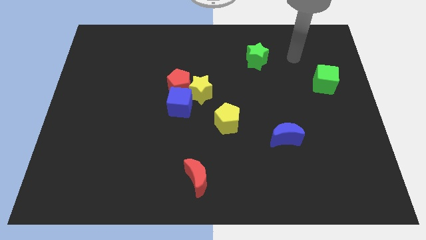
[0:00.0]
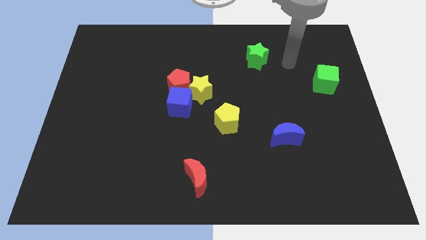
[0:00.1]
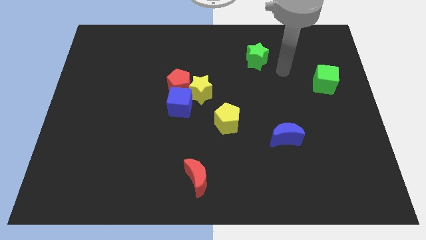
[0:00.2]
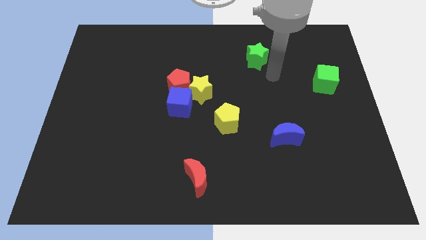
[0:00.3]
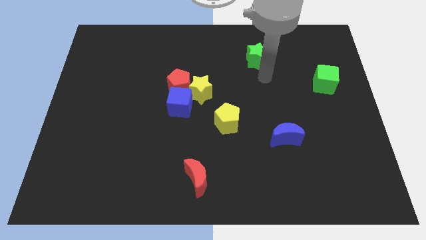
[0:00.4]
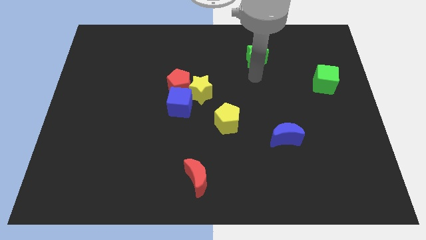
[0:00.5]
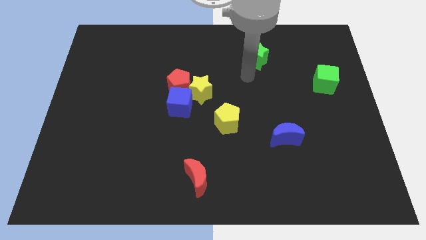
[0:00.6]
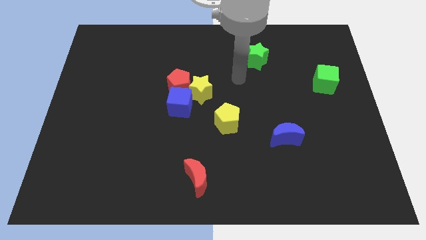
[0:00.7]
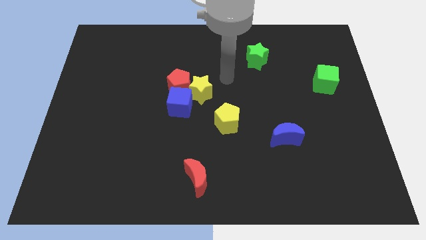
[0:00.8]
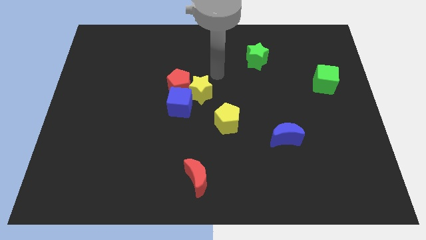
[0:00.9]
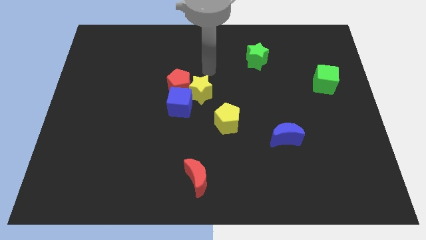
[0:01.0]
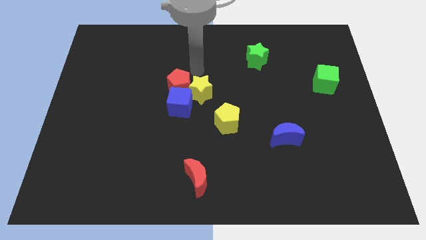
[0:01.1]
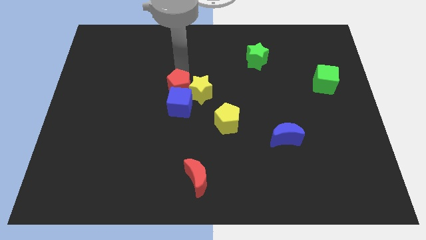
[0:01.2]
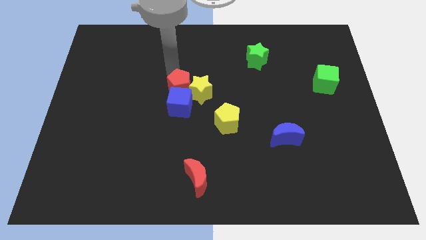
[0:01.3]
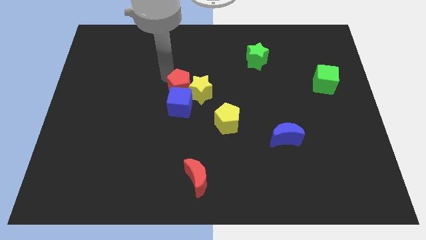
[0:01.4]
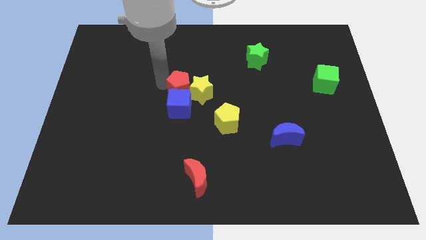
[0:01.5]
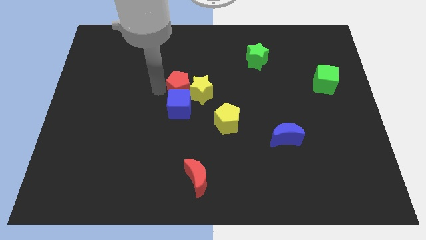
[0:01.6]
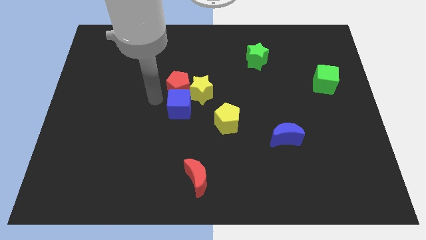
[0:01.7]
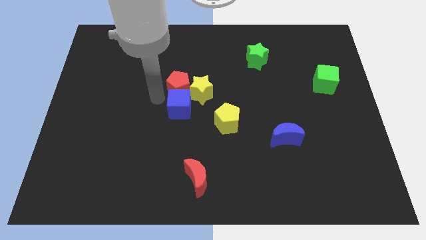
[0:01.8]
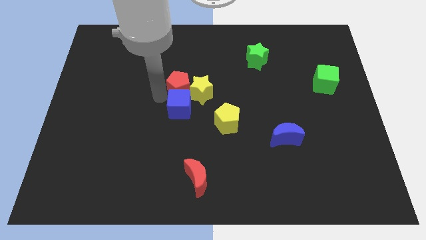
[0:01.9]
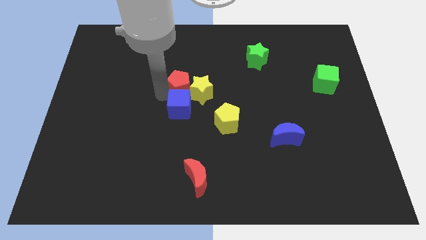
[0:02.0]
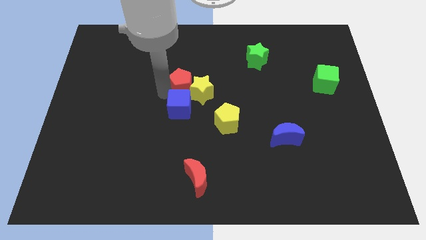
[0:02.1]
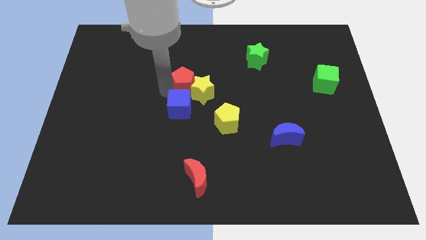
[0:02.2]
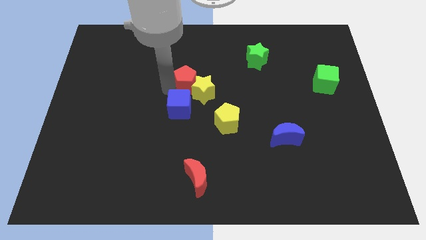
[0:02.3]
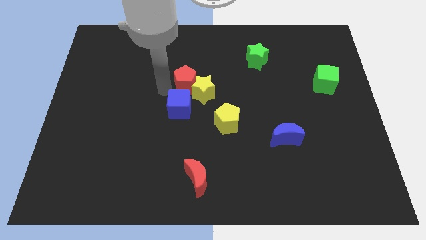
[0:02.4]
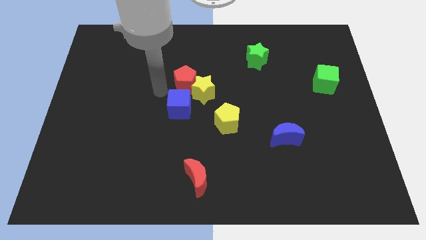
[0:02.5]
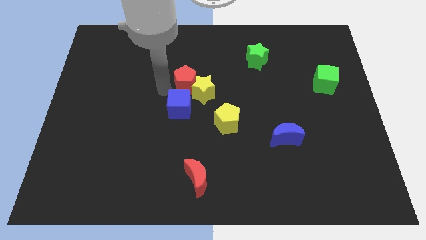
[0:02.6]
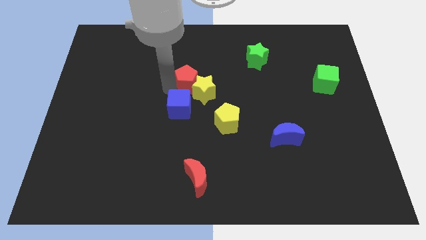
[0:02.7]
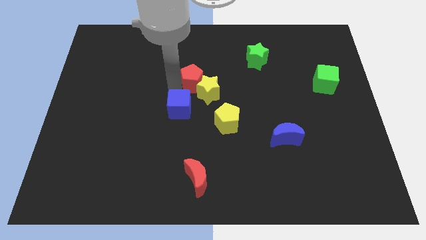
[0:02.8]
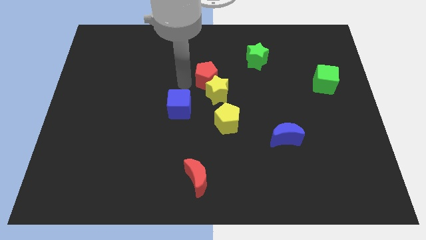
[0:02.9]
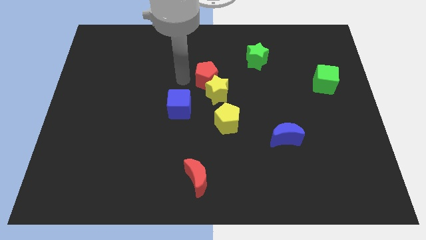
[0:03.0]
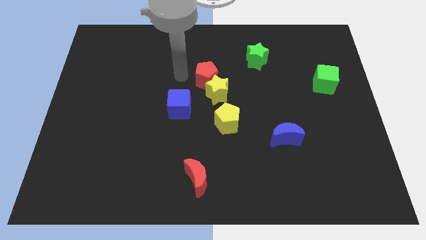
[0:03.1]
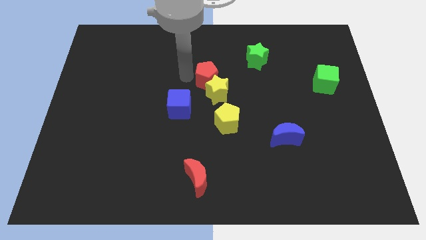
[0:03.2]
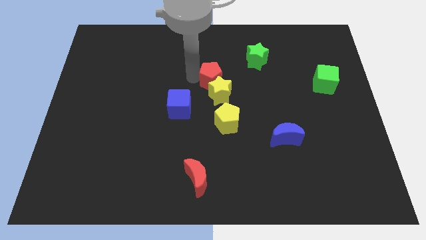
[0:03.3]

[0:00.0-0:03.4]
slide the red pentagon right a little bit

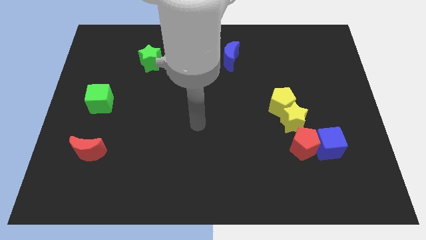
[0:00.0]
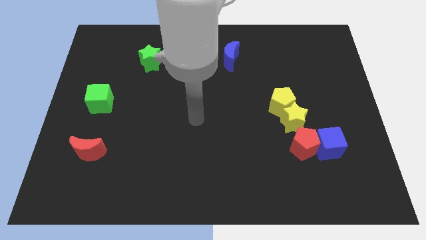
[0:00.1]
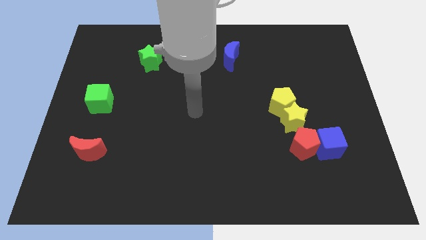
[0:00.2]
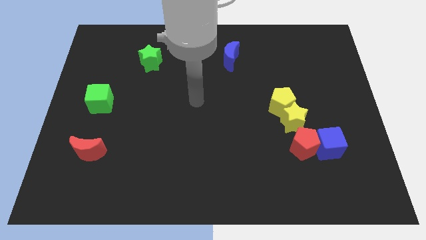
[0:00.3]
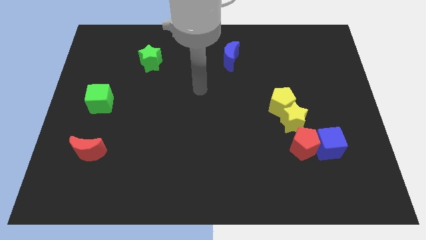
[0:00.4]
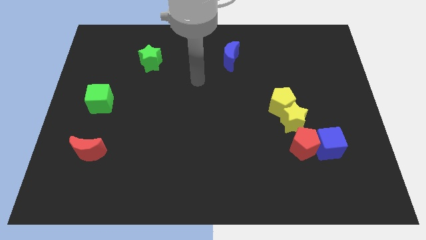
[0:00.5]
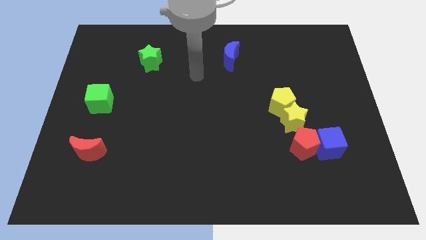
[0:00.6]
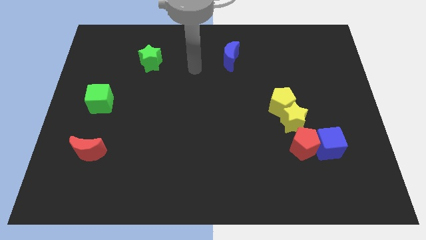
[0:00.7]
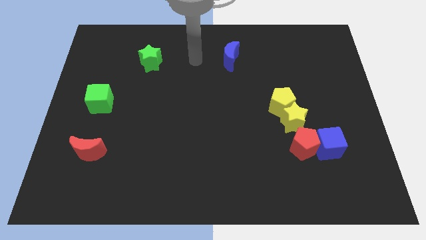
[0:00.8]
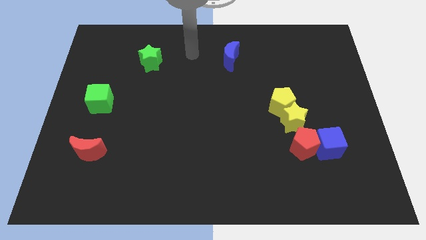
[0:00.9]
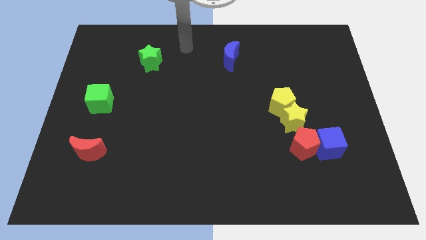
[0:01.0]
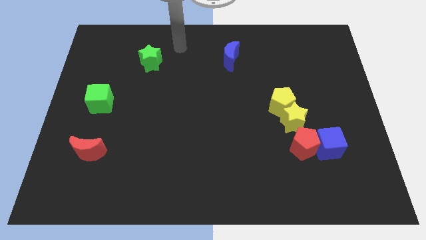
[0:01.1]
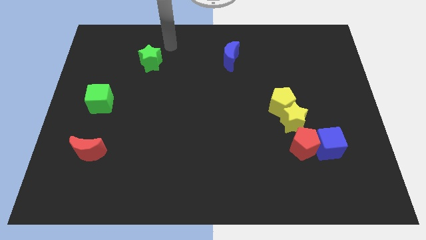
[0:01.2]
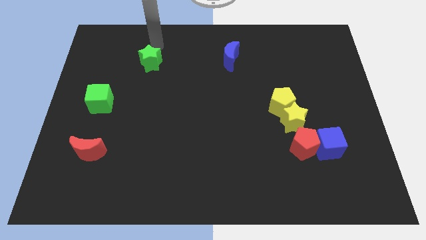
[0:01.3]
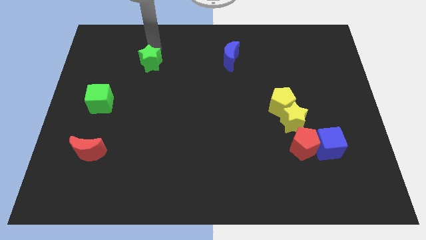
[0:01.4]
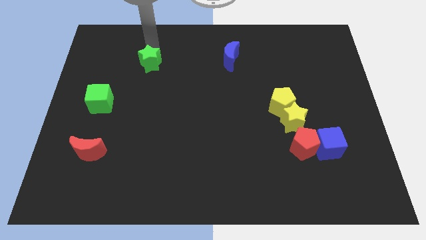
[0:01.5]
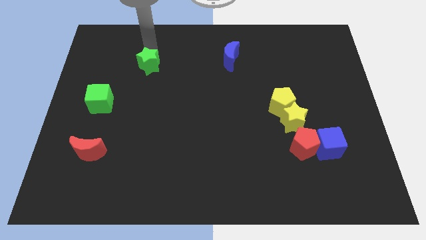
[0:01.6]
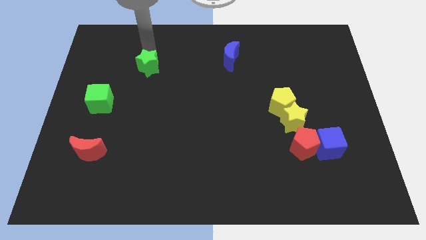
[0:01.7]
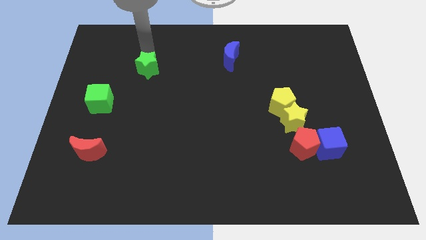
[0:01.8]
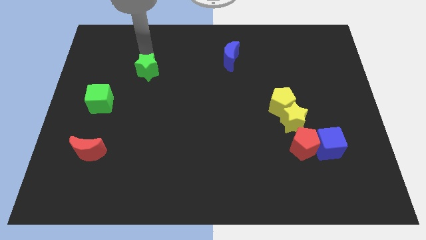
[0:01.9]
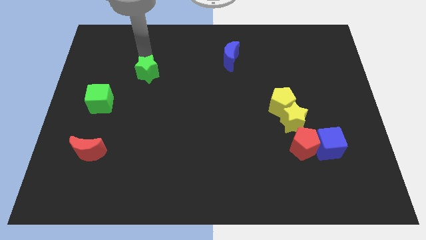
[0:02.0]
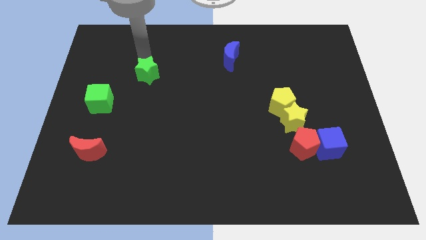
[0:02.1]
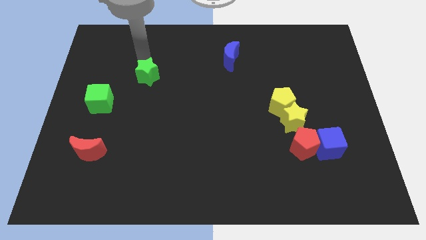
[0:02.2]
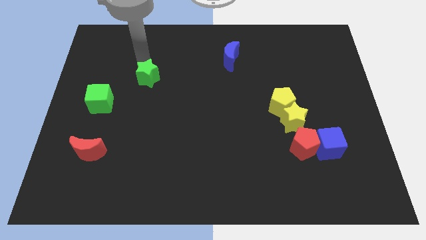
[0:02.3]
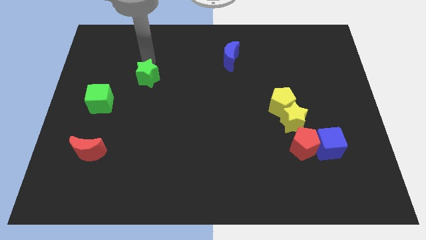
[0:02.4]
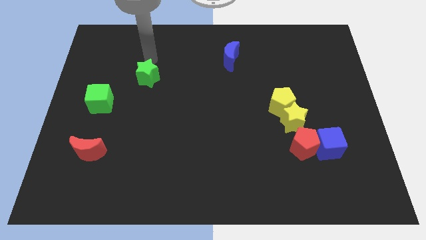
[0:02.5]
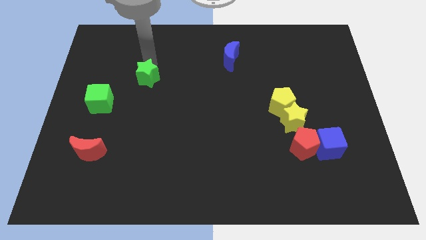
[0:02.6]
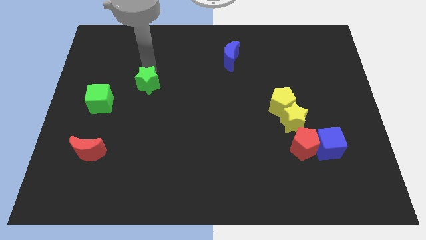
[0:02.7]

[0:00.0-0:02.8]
push the green star downwards somewhat

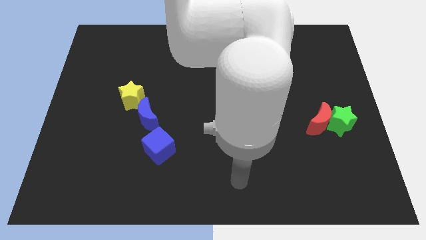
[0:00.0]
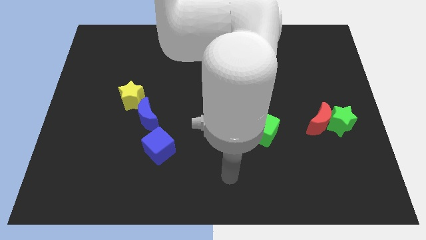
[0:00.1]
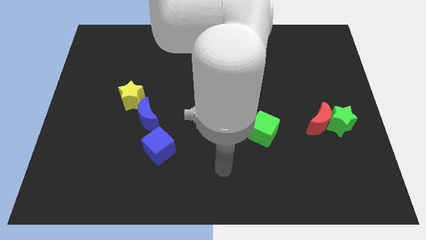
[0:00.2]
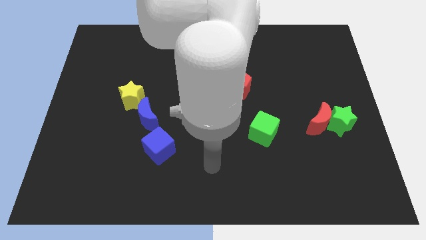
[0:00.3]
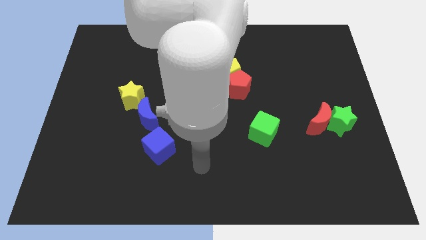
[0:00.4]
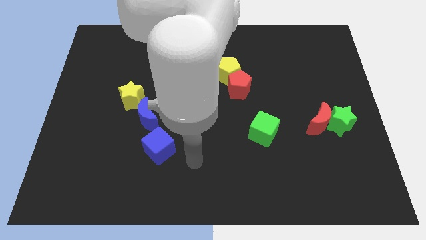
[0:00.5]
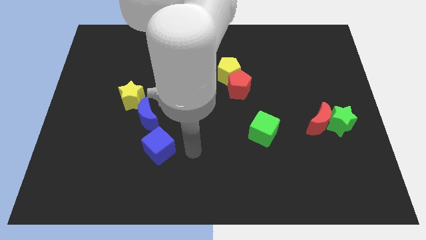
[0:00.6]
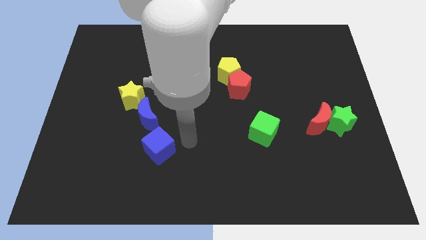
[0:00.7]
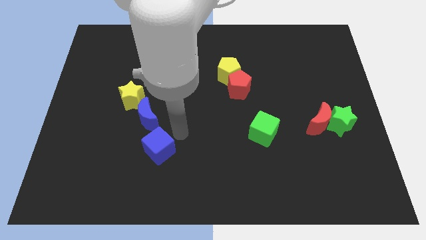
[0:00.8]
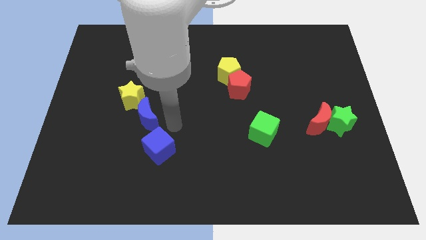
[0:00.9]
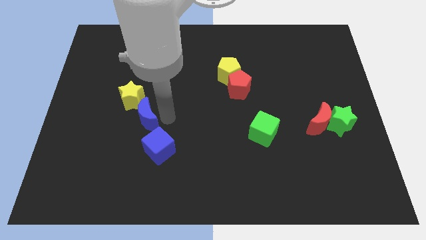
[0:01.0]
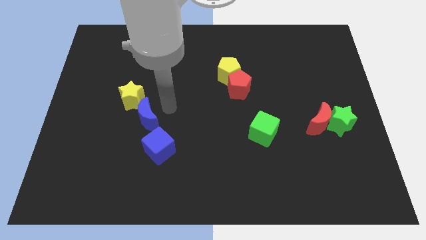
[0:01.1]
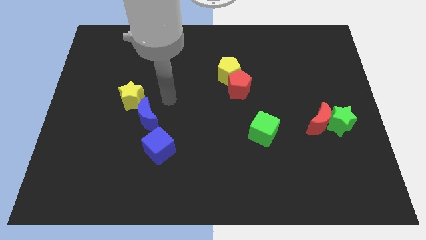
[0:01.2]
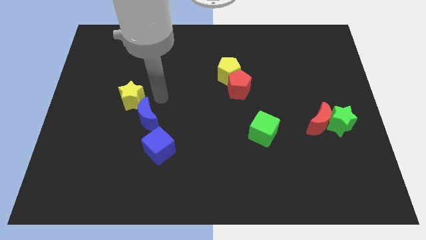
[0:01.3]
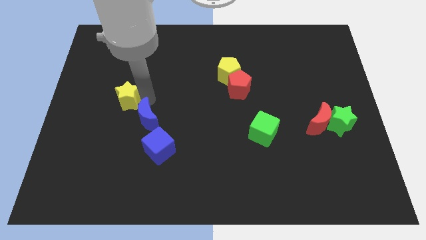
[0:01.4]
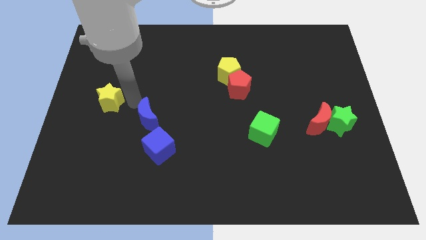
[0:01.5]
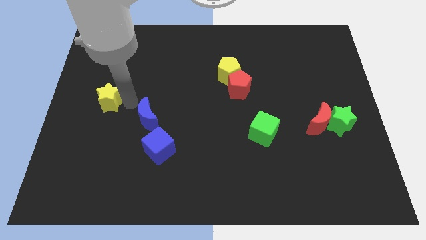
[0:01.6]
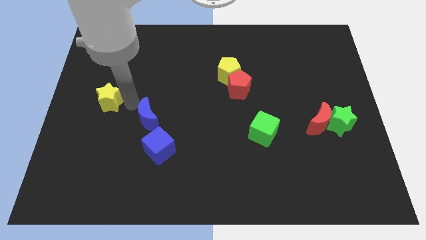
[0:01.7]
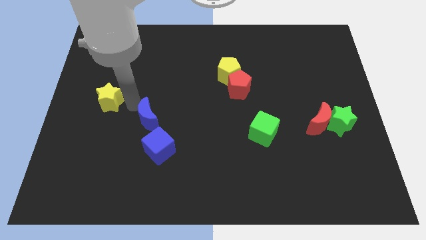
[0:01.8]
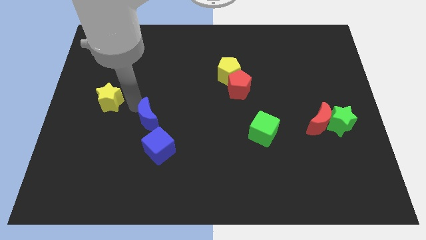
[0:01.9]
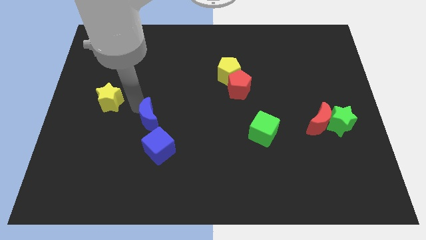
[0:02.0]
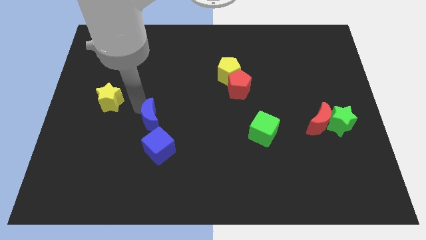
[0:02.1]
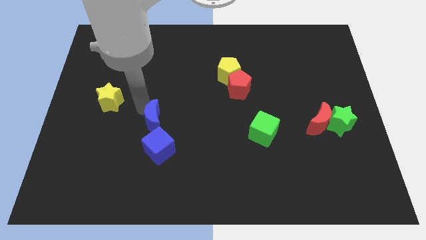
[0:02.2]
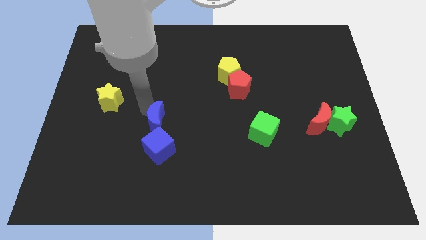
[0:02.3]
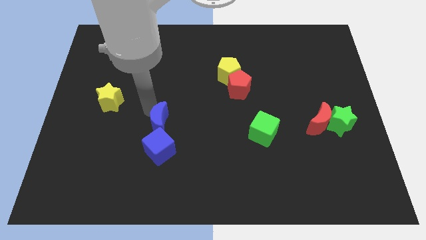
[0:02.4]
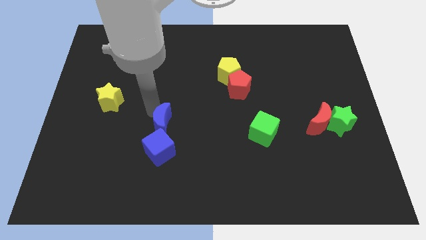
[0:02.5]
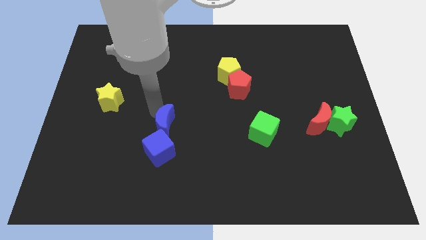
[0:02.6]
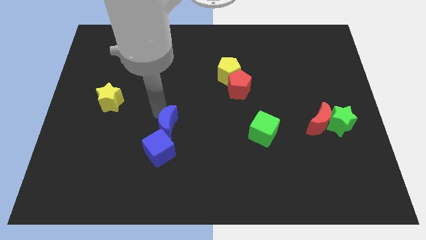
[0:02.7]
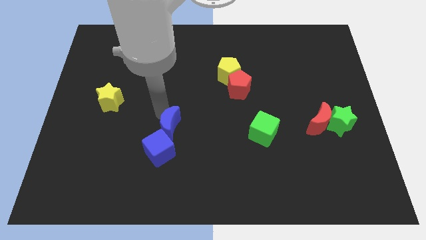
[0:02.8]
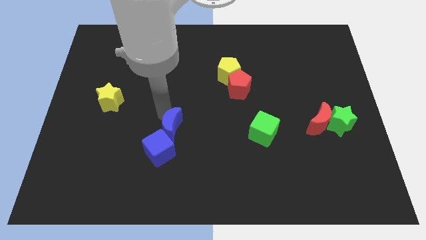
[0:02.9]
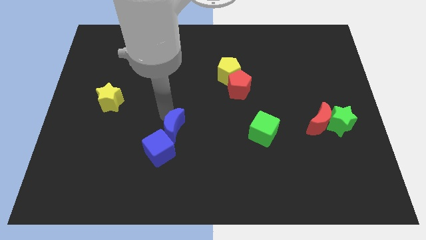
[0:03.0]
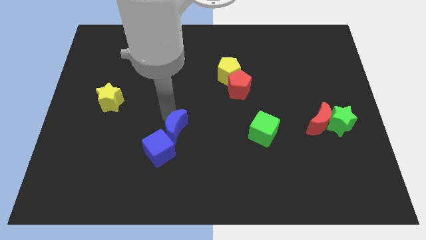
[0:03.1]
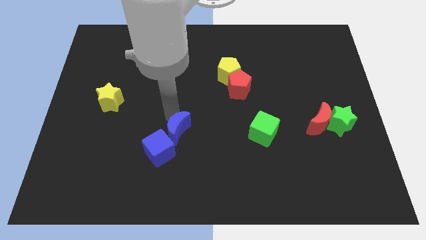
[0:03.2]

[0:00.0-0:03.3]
slightly move the blue moon downwards and to the right
